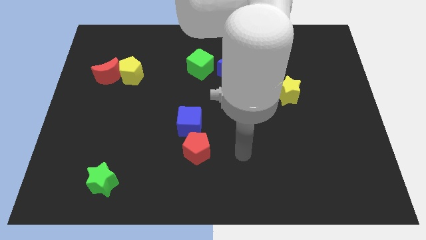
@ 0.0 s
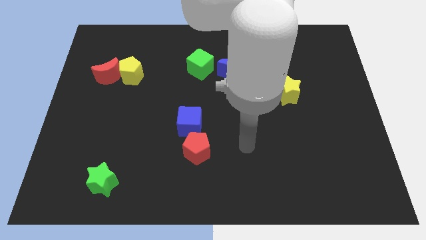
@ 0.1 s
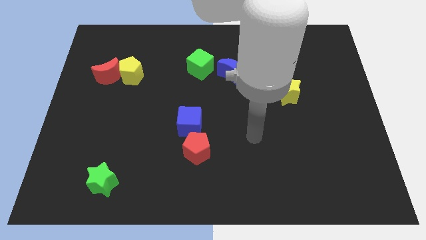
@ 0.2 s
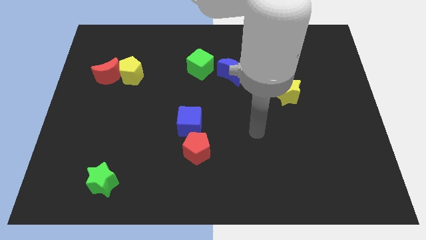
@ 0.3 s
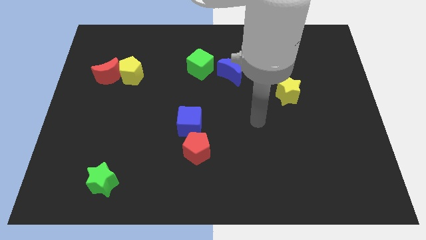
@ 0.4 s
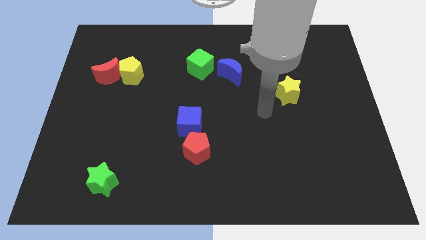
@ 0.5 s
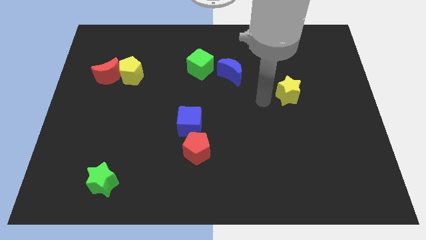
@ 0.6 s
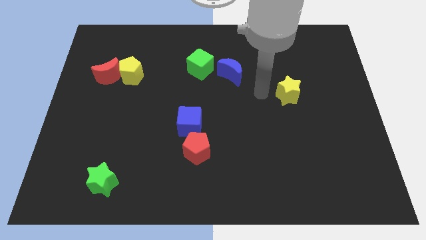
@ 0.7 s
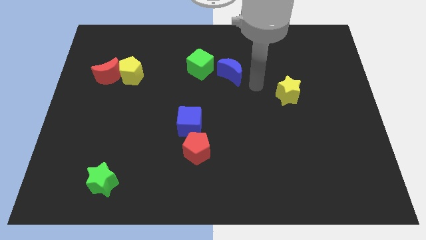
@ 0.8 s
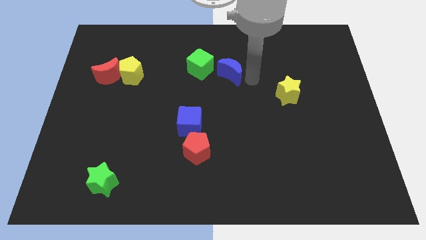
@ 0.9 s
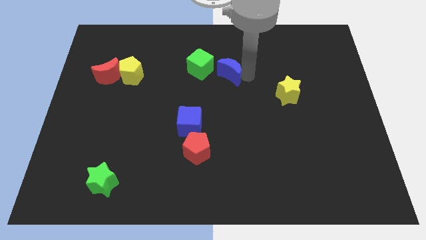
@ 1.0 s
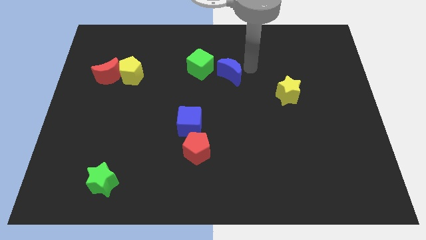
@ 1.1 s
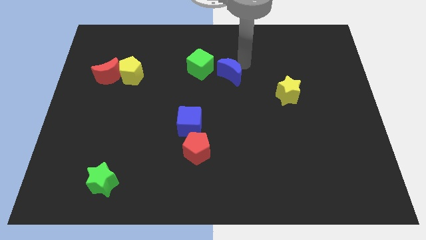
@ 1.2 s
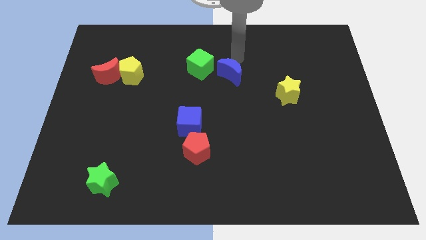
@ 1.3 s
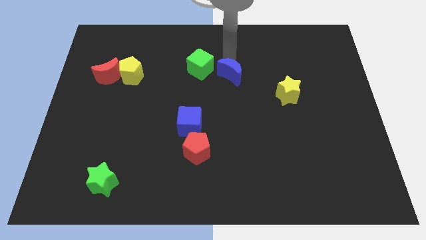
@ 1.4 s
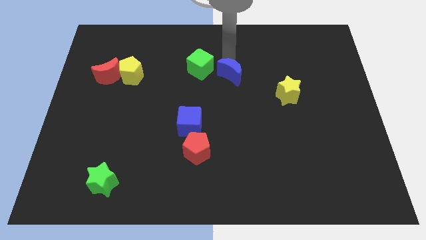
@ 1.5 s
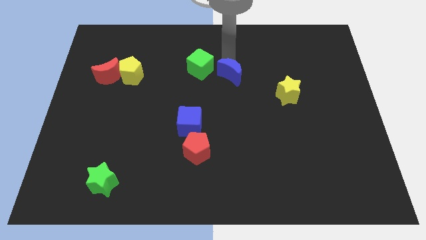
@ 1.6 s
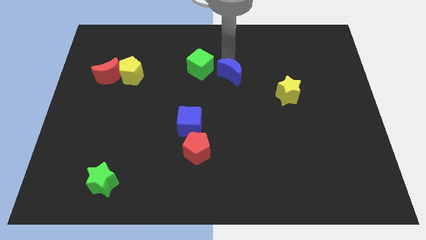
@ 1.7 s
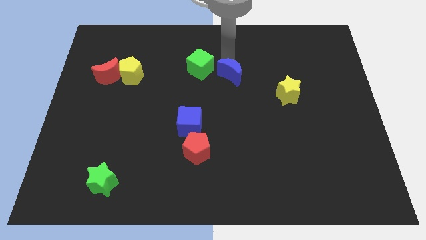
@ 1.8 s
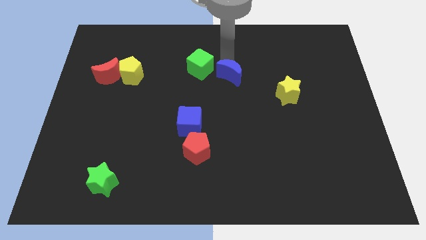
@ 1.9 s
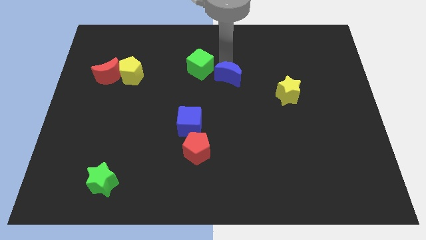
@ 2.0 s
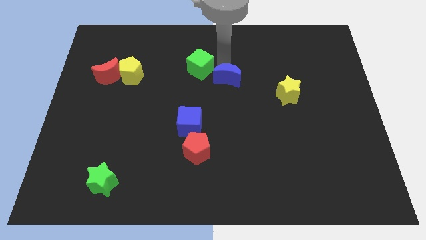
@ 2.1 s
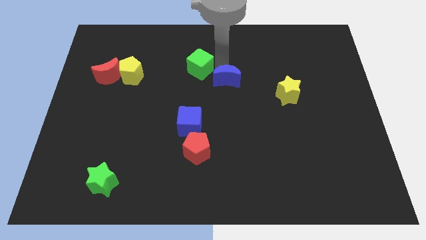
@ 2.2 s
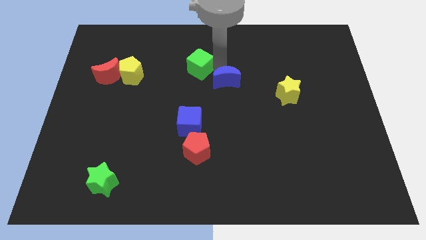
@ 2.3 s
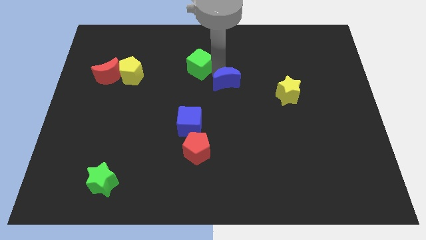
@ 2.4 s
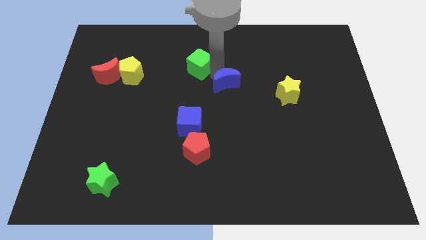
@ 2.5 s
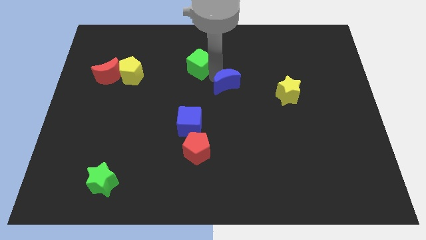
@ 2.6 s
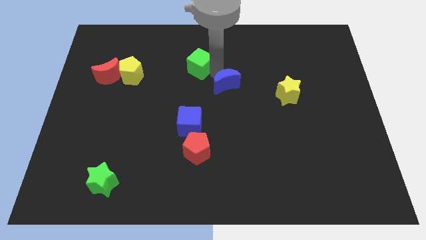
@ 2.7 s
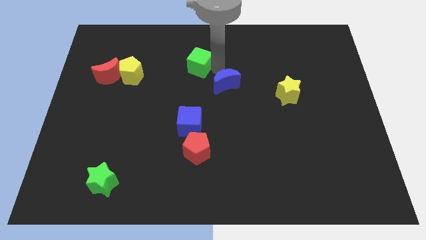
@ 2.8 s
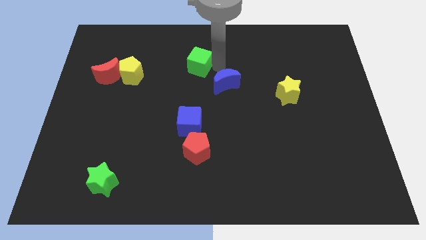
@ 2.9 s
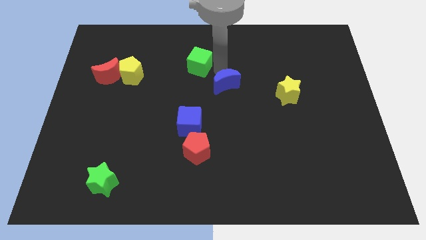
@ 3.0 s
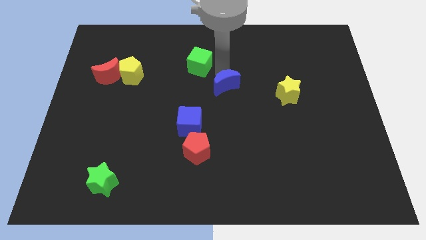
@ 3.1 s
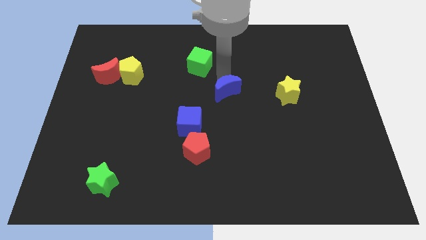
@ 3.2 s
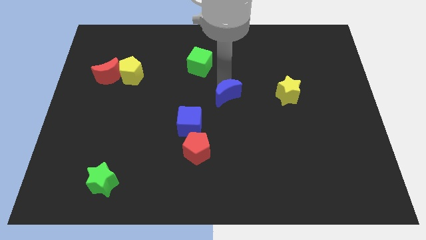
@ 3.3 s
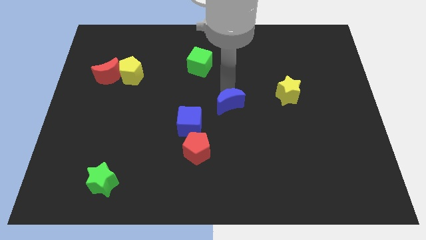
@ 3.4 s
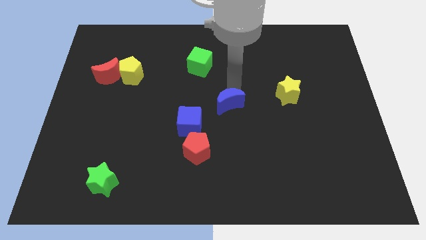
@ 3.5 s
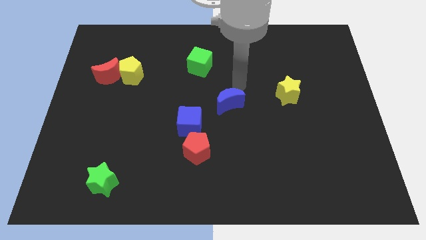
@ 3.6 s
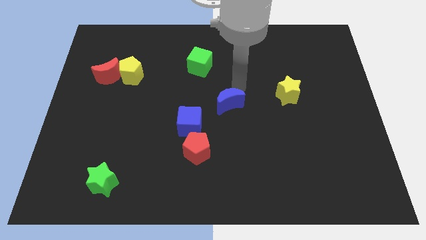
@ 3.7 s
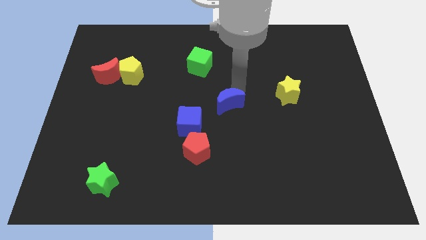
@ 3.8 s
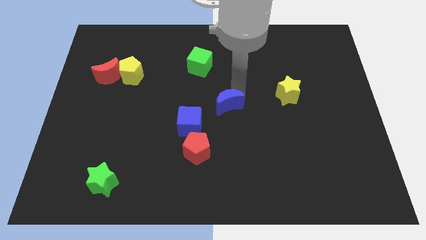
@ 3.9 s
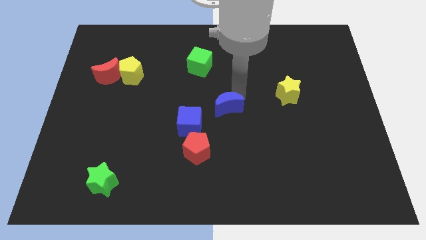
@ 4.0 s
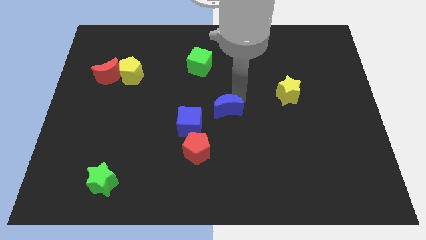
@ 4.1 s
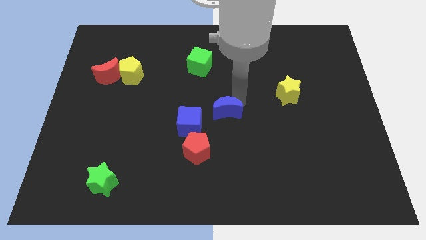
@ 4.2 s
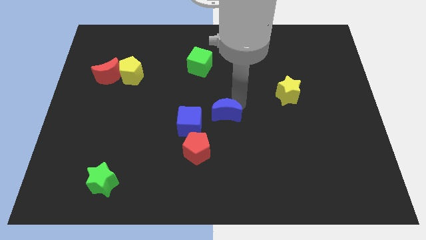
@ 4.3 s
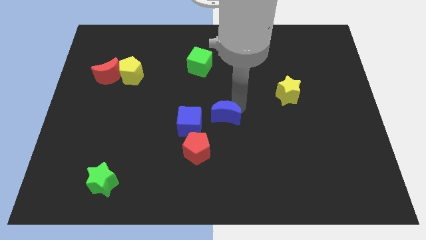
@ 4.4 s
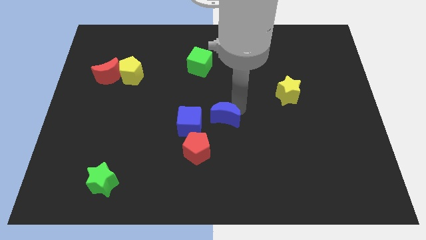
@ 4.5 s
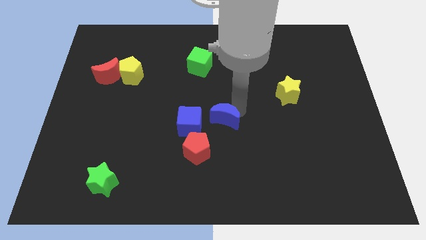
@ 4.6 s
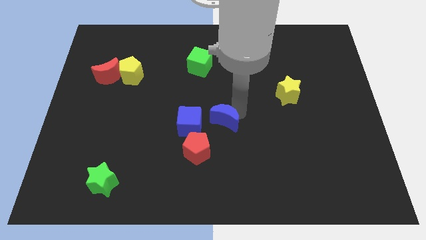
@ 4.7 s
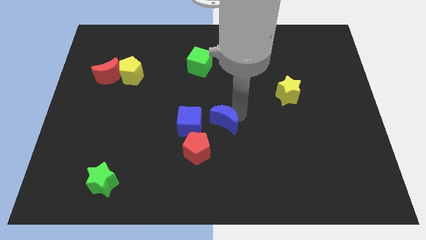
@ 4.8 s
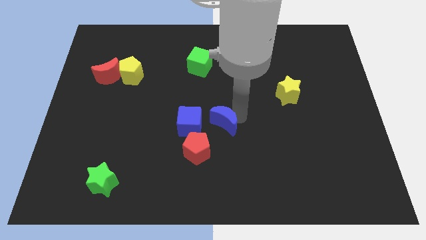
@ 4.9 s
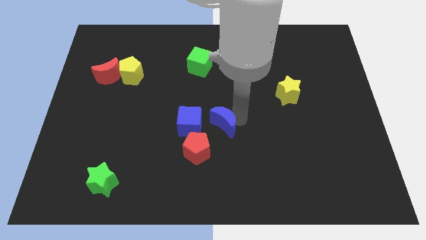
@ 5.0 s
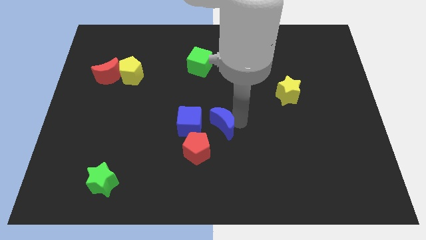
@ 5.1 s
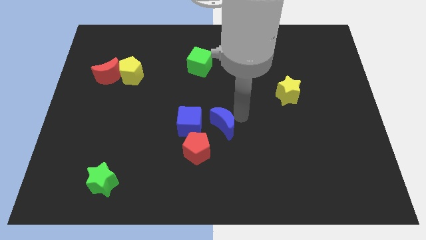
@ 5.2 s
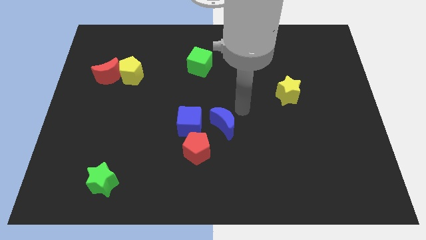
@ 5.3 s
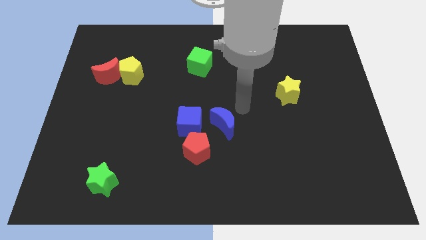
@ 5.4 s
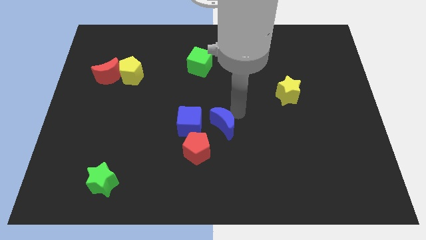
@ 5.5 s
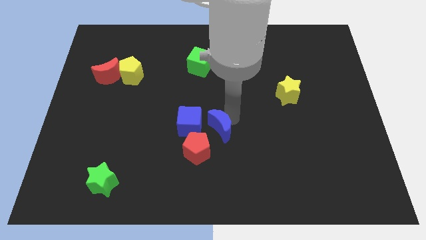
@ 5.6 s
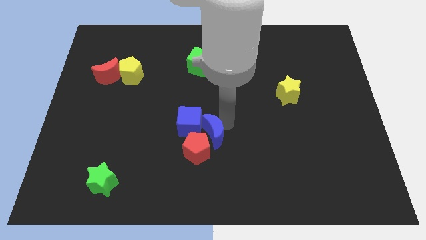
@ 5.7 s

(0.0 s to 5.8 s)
put the blue moon next to the red pentagon

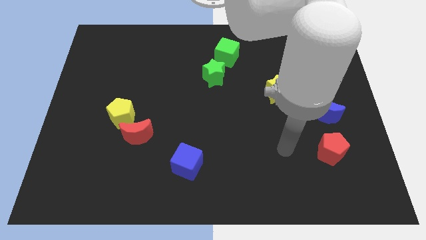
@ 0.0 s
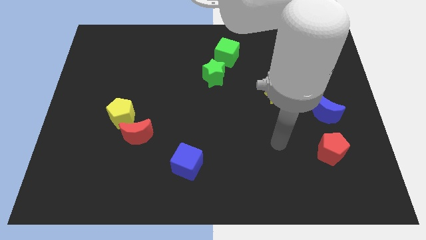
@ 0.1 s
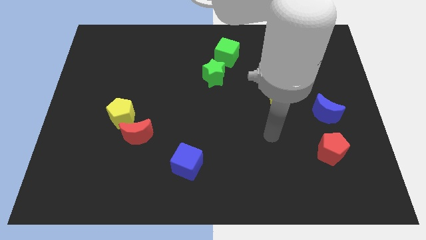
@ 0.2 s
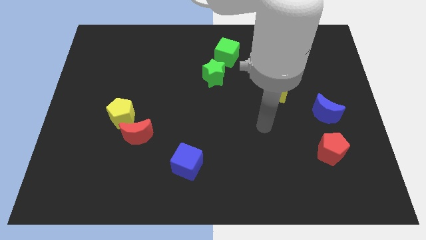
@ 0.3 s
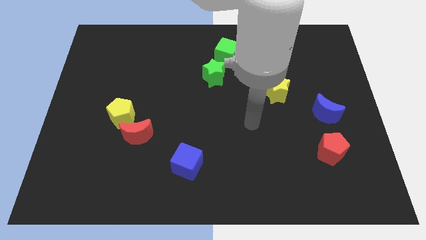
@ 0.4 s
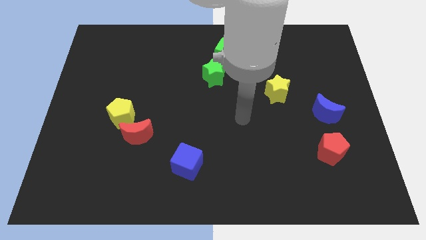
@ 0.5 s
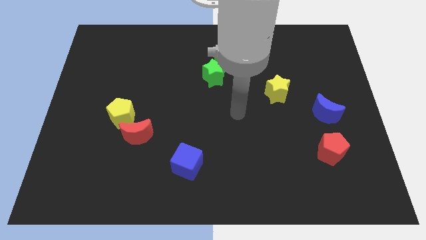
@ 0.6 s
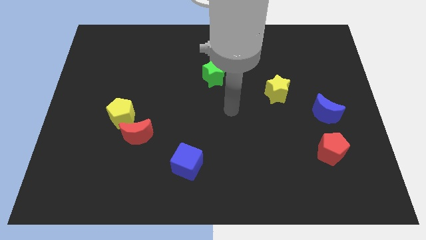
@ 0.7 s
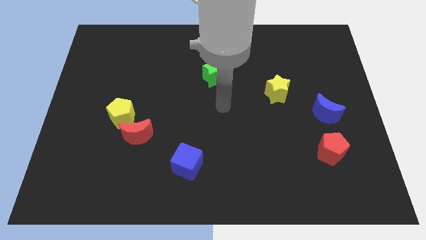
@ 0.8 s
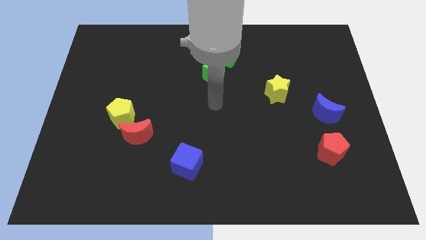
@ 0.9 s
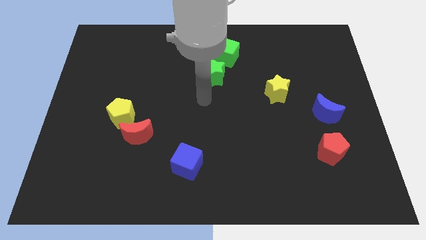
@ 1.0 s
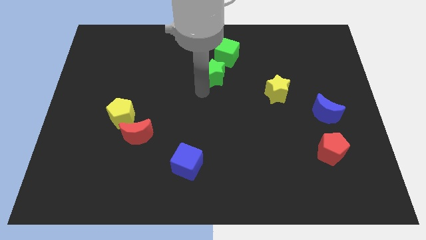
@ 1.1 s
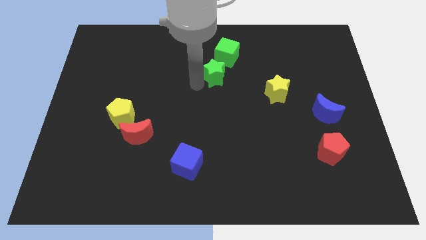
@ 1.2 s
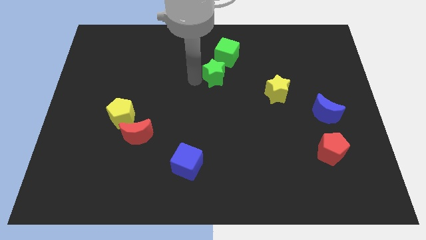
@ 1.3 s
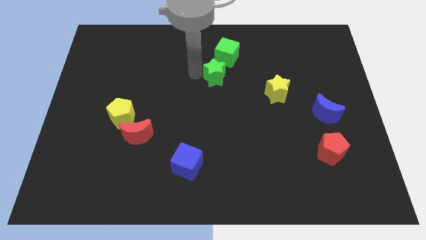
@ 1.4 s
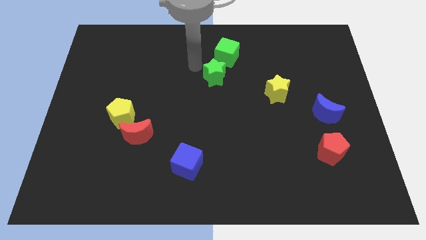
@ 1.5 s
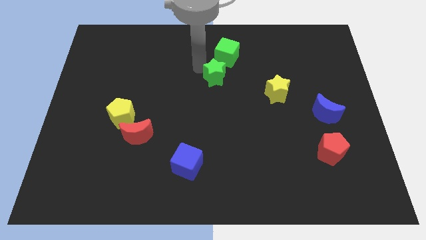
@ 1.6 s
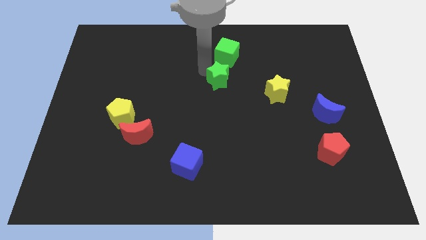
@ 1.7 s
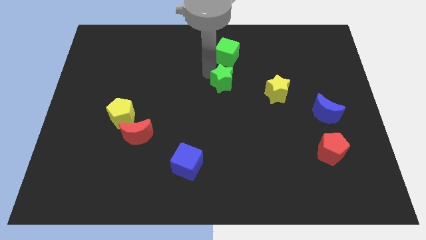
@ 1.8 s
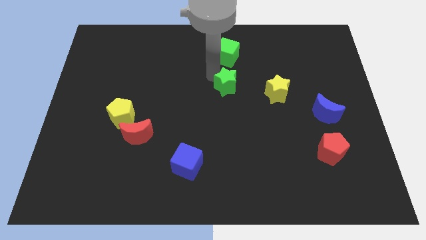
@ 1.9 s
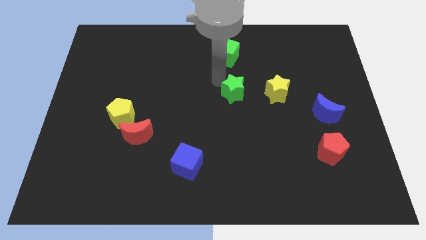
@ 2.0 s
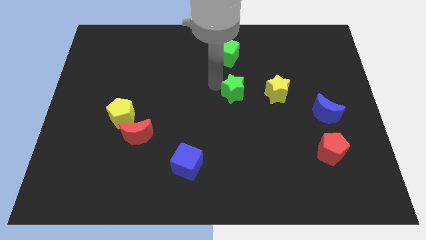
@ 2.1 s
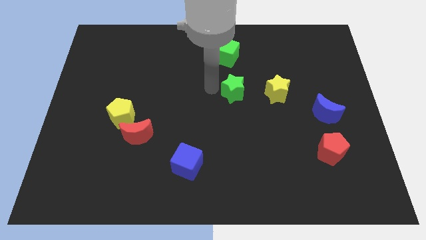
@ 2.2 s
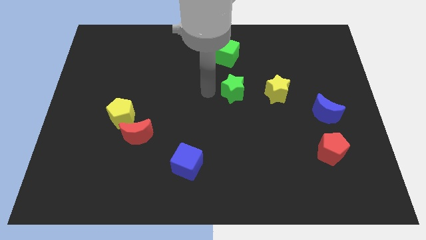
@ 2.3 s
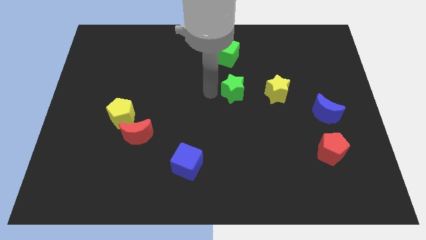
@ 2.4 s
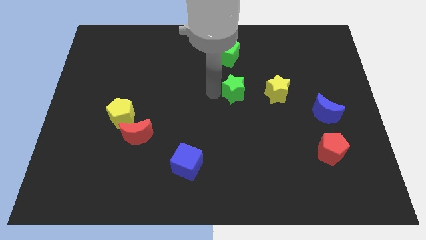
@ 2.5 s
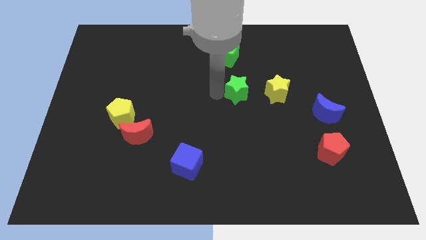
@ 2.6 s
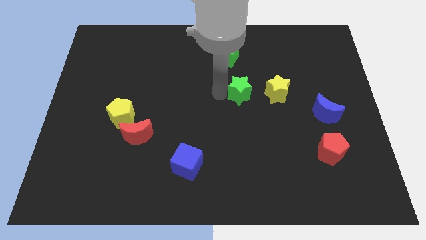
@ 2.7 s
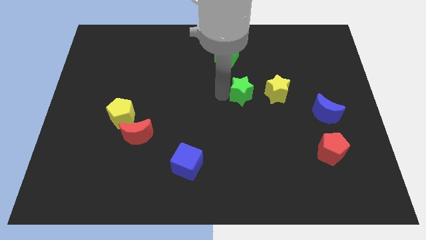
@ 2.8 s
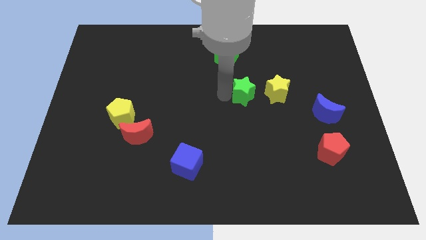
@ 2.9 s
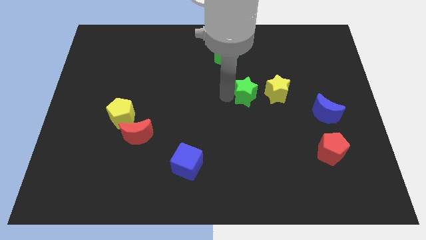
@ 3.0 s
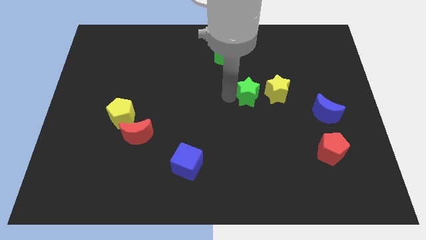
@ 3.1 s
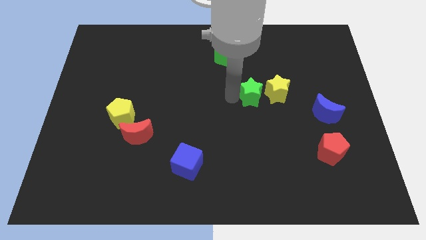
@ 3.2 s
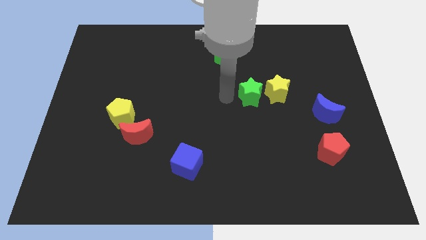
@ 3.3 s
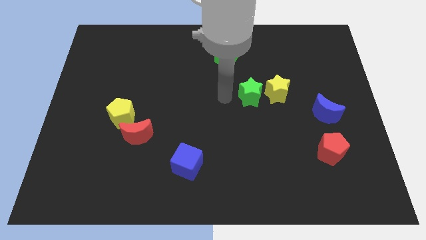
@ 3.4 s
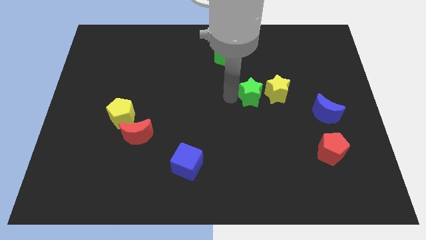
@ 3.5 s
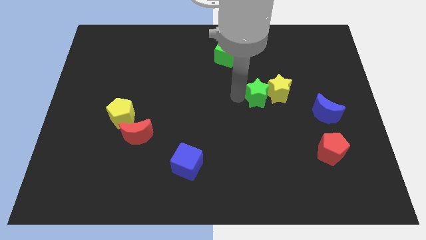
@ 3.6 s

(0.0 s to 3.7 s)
move the green star to the yellow star
